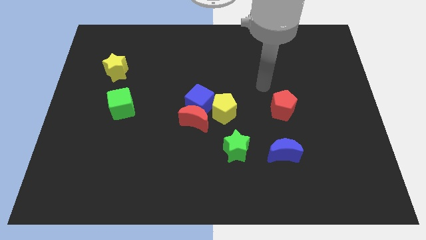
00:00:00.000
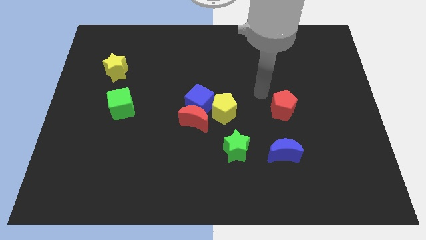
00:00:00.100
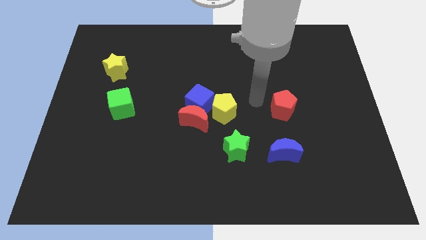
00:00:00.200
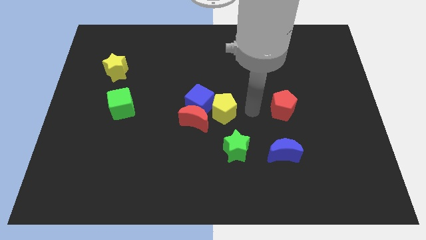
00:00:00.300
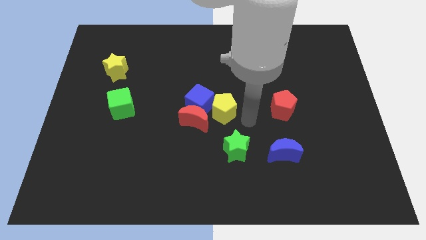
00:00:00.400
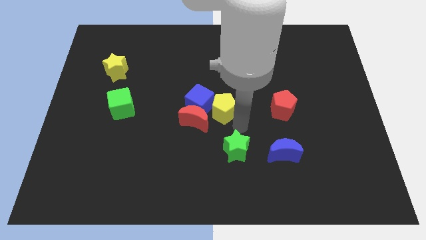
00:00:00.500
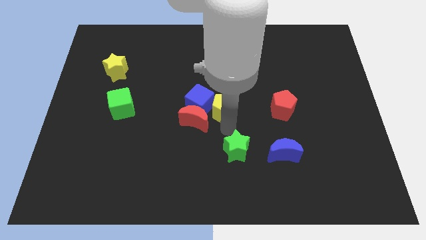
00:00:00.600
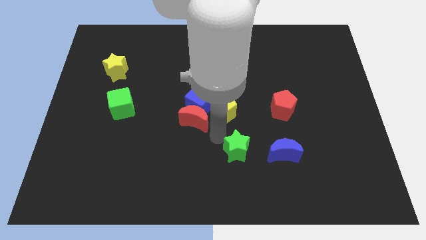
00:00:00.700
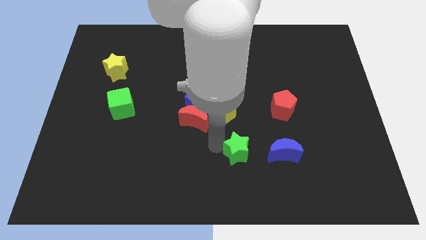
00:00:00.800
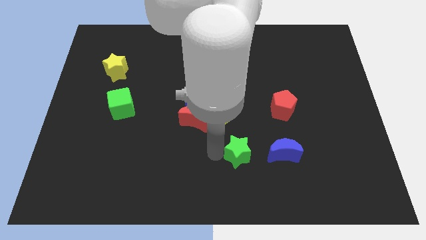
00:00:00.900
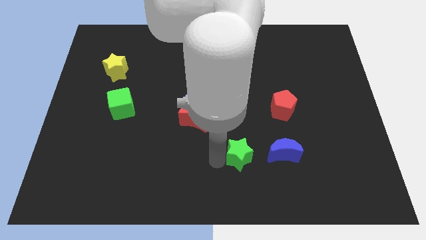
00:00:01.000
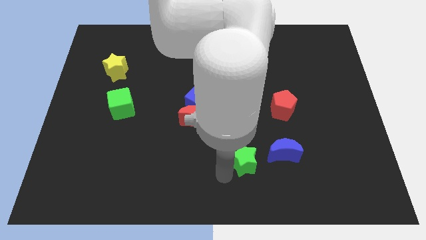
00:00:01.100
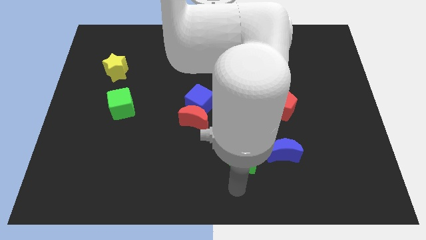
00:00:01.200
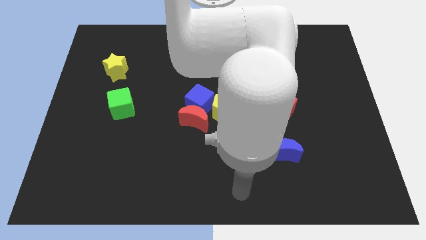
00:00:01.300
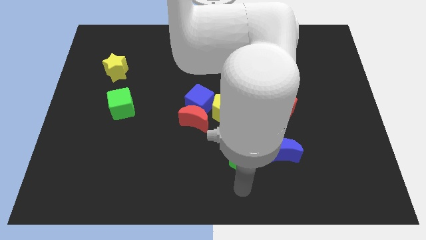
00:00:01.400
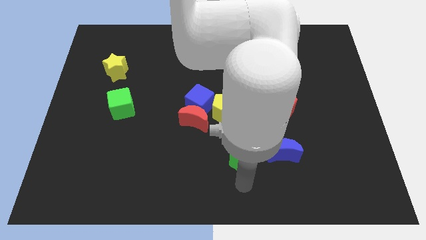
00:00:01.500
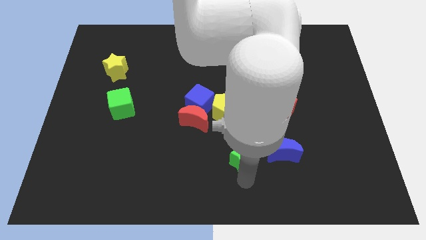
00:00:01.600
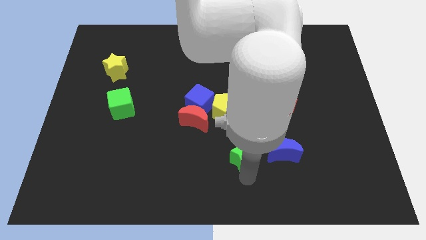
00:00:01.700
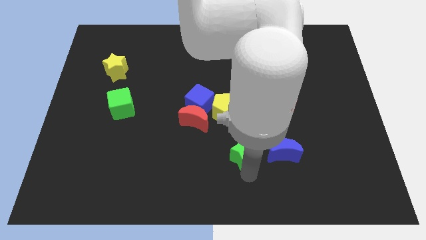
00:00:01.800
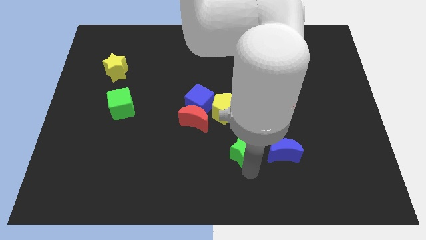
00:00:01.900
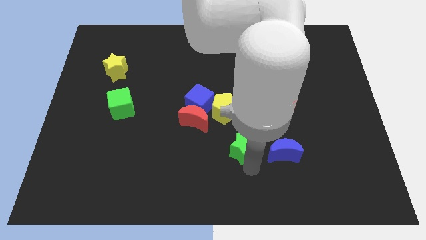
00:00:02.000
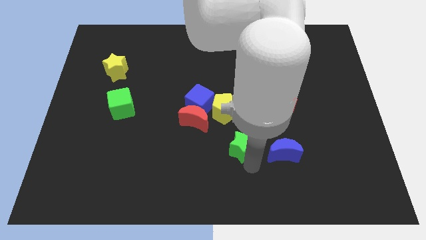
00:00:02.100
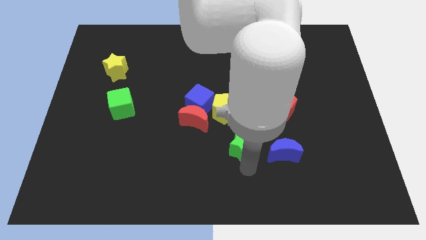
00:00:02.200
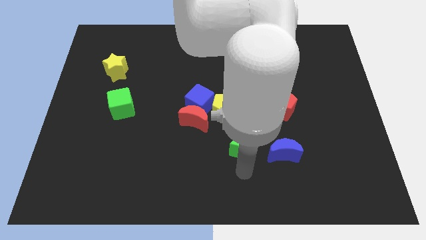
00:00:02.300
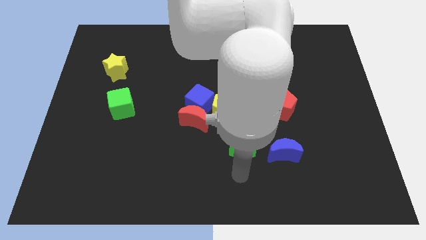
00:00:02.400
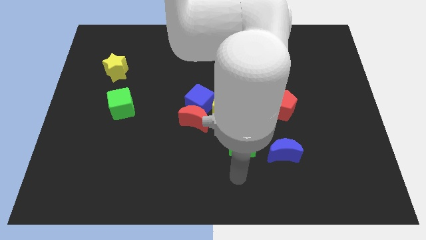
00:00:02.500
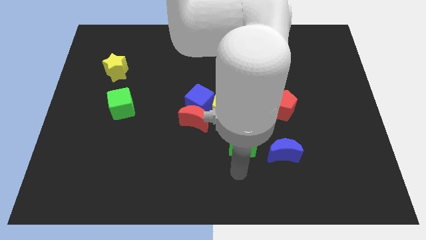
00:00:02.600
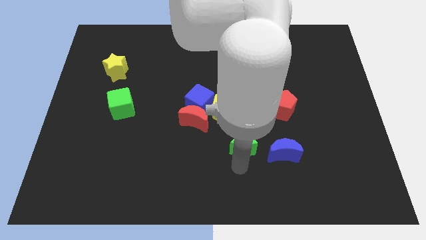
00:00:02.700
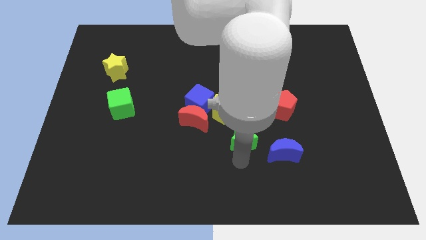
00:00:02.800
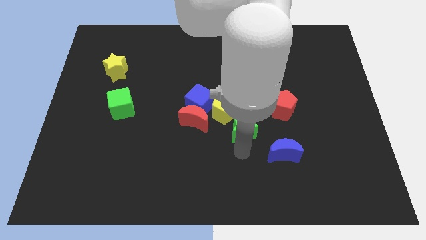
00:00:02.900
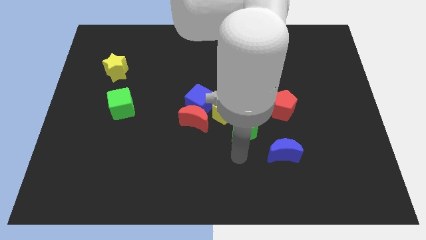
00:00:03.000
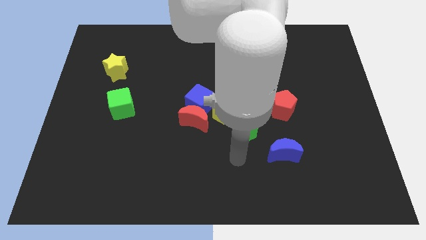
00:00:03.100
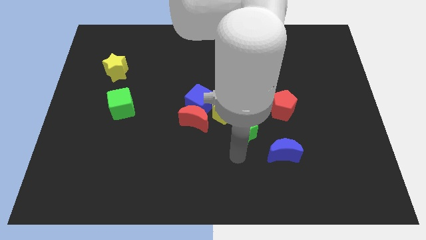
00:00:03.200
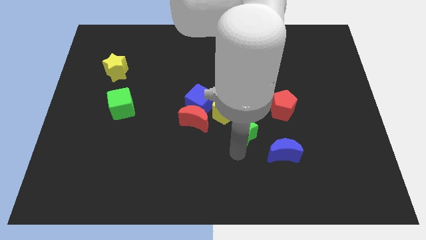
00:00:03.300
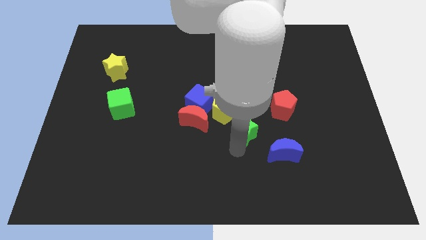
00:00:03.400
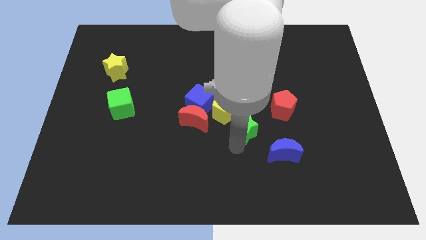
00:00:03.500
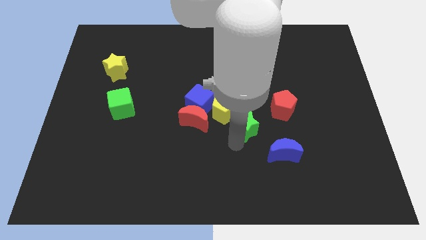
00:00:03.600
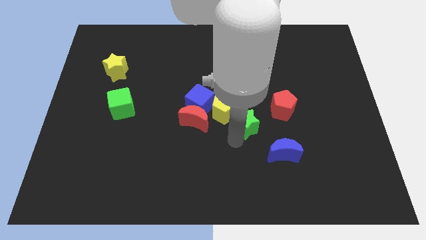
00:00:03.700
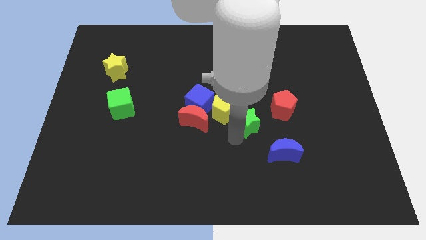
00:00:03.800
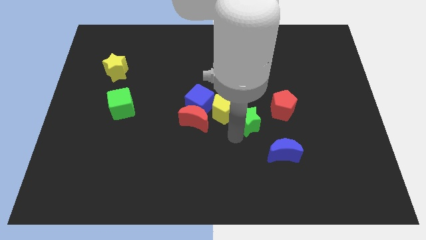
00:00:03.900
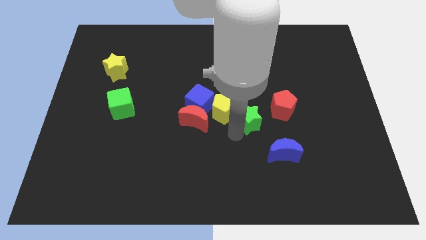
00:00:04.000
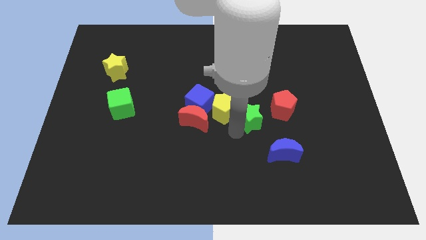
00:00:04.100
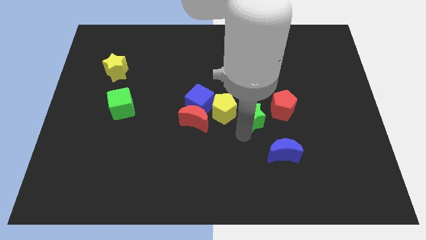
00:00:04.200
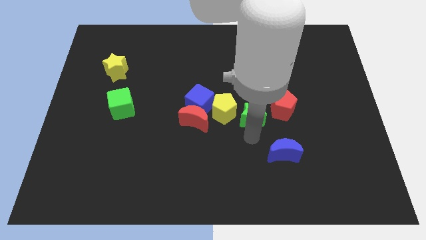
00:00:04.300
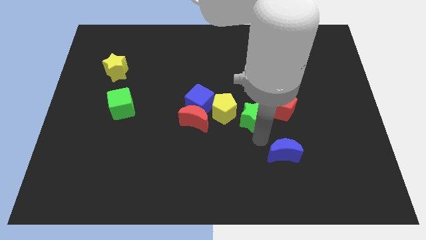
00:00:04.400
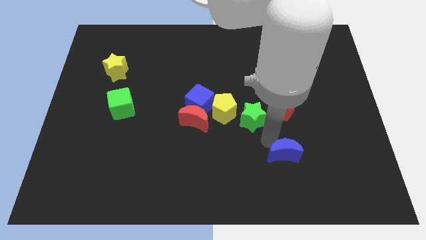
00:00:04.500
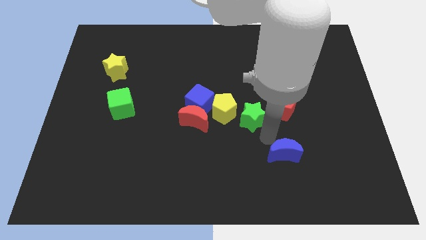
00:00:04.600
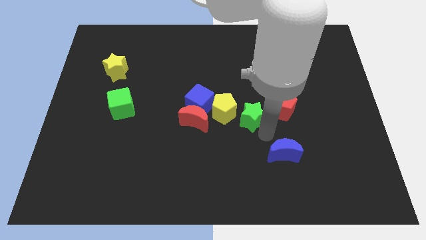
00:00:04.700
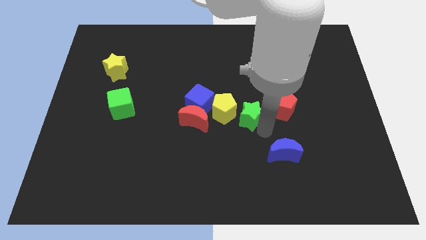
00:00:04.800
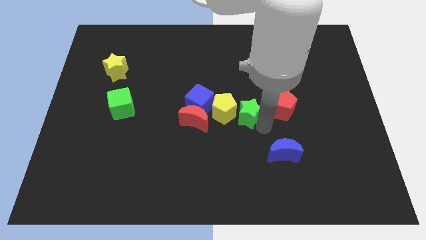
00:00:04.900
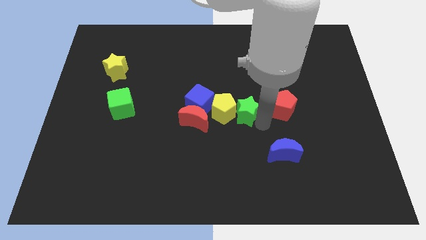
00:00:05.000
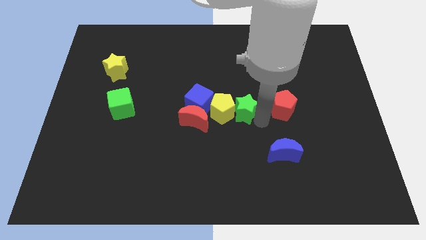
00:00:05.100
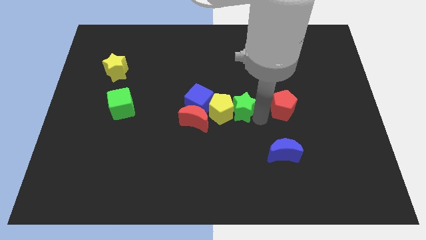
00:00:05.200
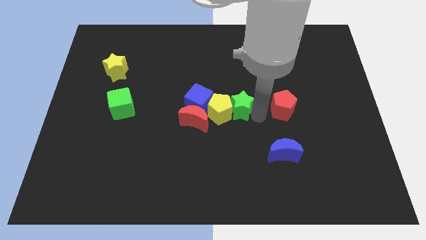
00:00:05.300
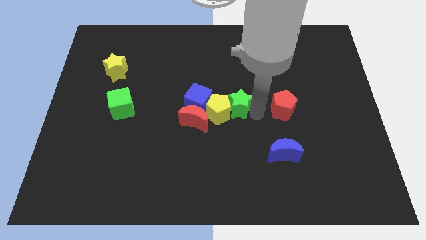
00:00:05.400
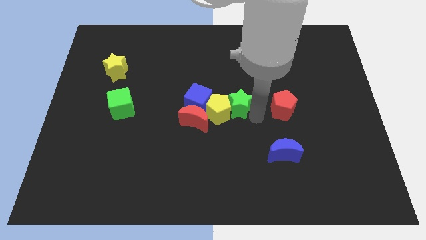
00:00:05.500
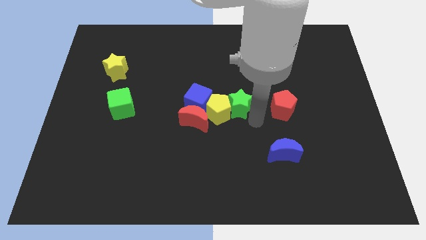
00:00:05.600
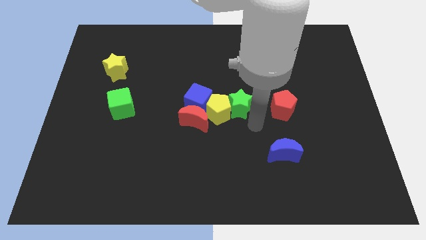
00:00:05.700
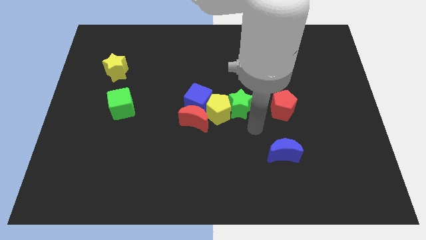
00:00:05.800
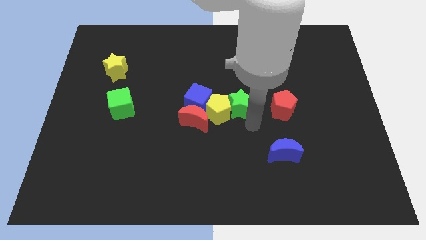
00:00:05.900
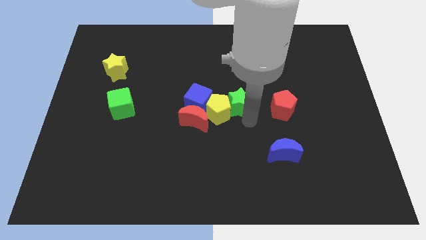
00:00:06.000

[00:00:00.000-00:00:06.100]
push the green star to the top right side of the red moon

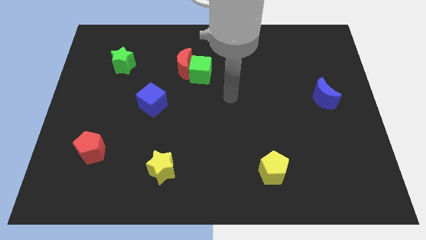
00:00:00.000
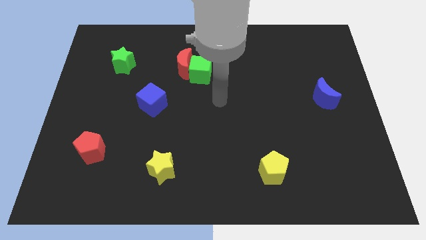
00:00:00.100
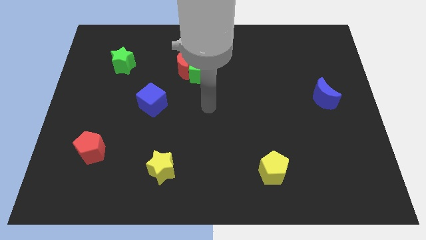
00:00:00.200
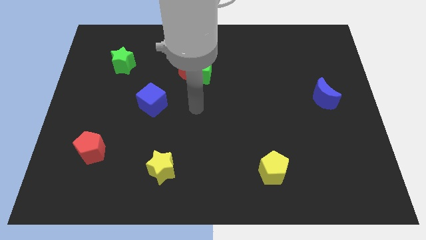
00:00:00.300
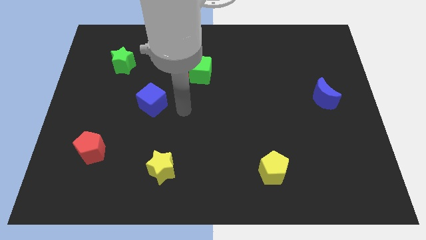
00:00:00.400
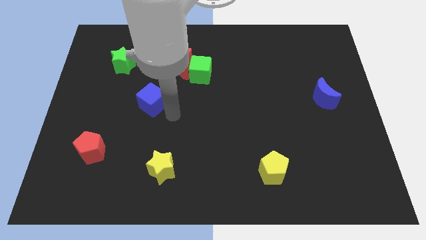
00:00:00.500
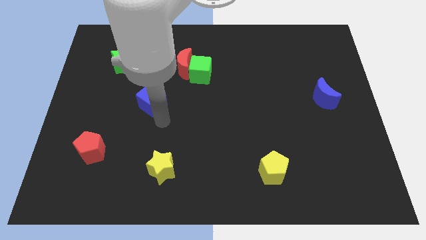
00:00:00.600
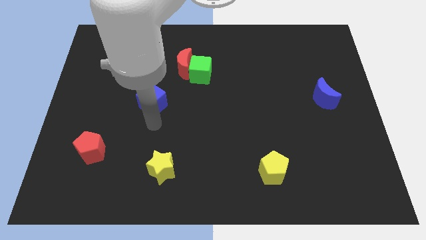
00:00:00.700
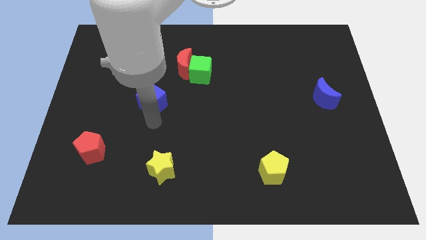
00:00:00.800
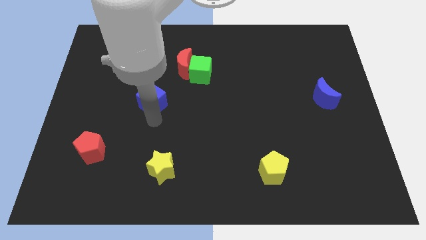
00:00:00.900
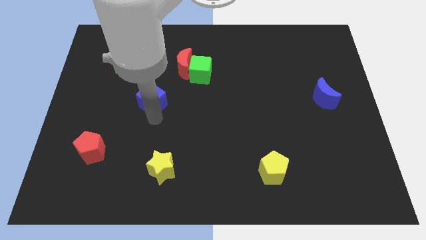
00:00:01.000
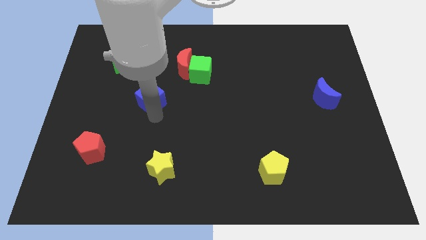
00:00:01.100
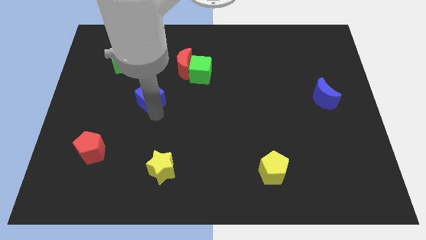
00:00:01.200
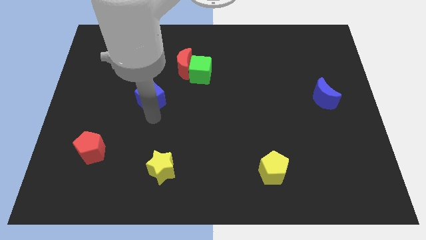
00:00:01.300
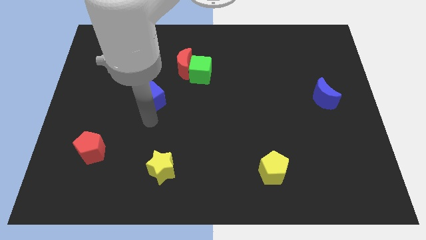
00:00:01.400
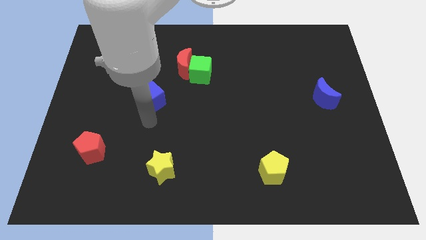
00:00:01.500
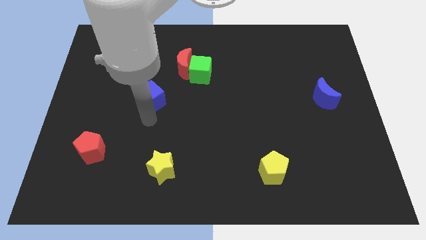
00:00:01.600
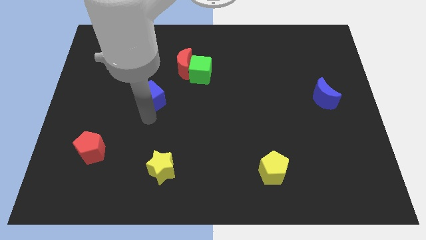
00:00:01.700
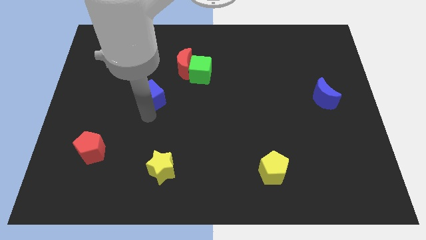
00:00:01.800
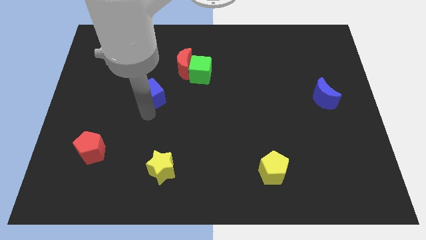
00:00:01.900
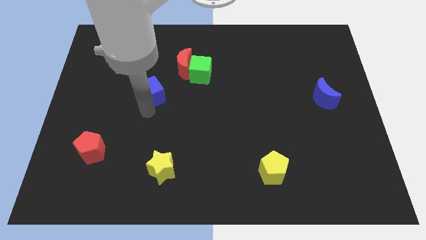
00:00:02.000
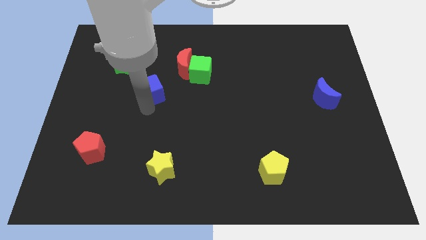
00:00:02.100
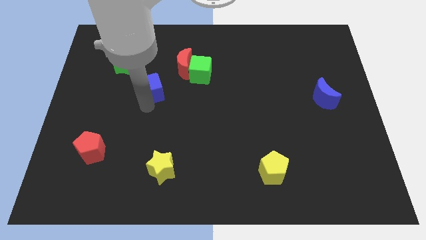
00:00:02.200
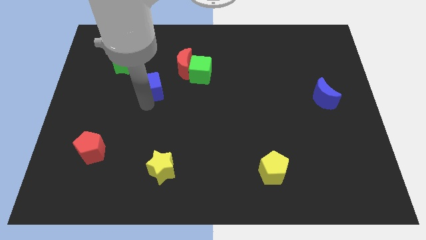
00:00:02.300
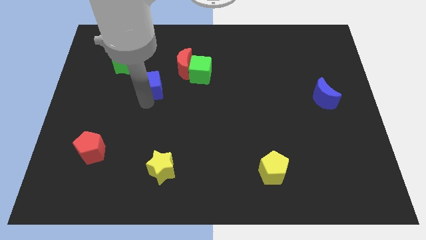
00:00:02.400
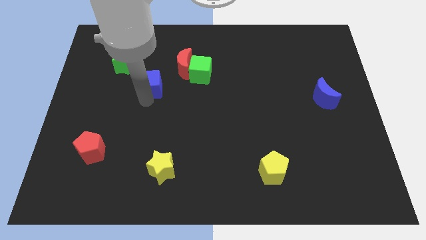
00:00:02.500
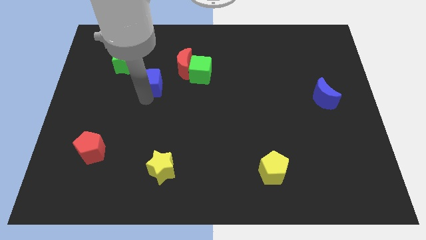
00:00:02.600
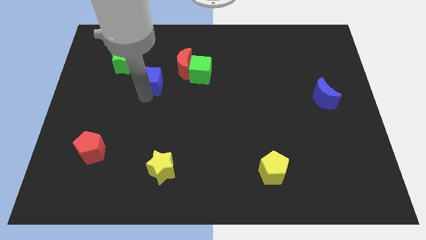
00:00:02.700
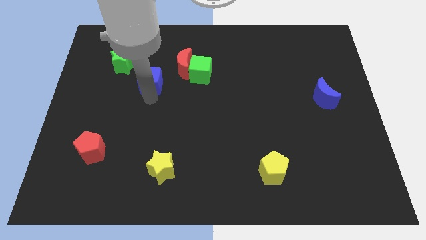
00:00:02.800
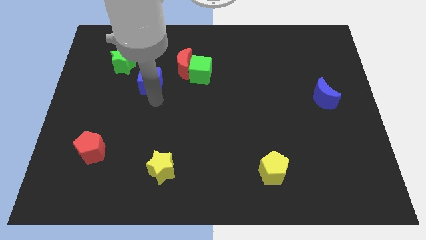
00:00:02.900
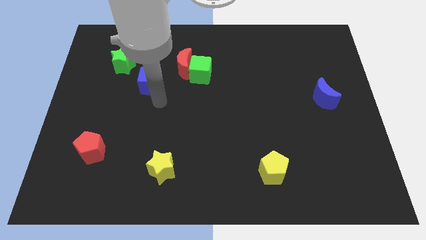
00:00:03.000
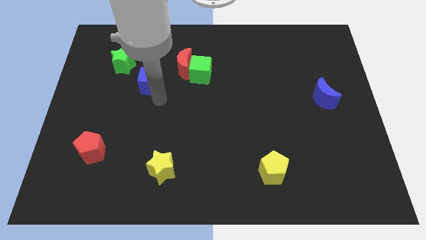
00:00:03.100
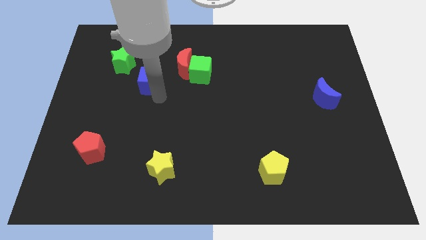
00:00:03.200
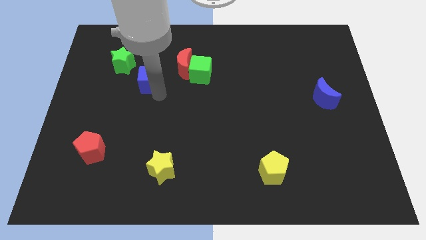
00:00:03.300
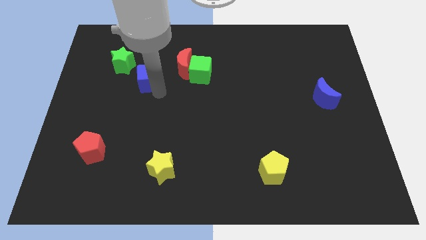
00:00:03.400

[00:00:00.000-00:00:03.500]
move the blue cube to the left side of the red moon
